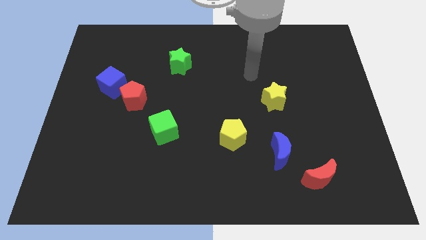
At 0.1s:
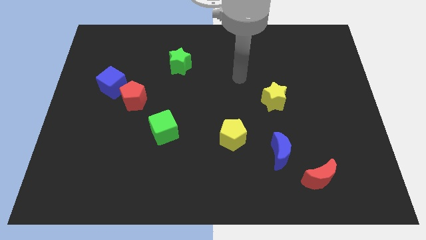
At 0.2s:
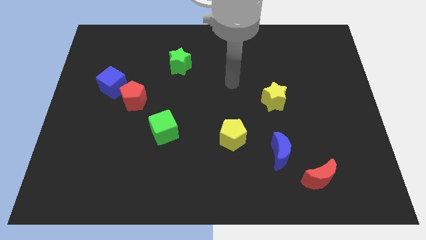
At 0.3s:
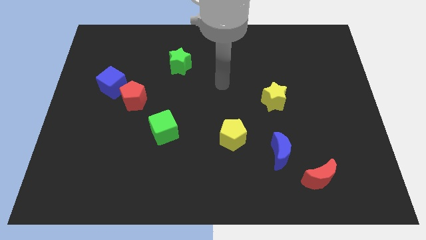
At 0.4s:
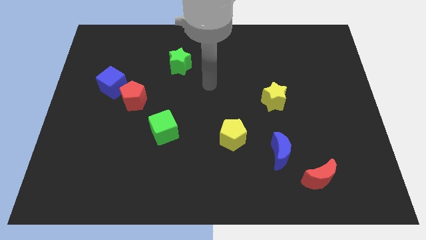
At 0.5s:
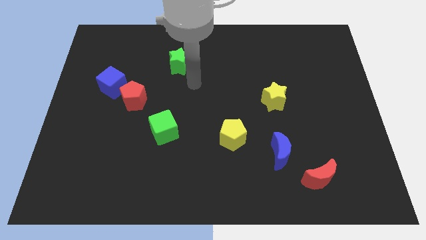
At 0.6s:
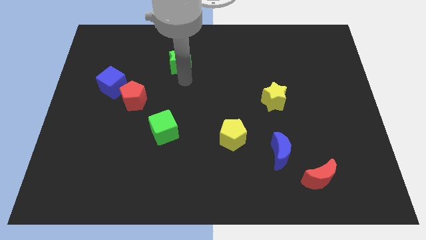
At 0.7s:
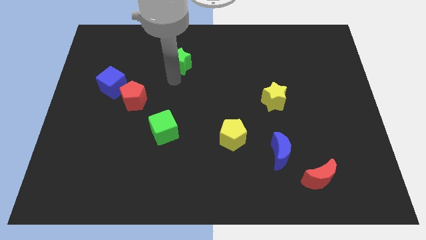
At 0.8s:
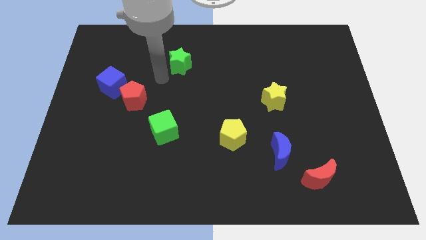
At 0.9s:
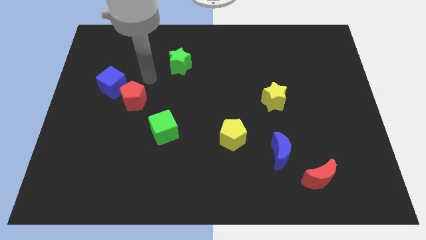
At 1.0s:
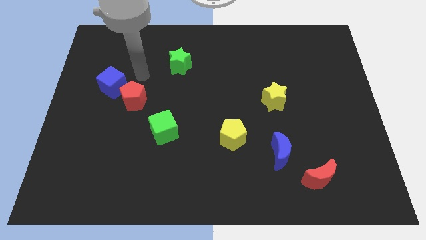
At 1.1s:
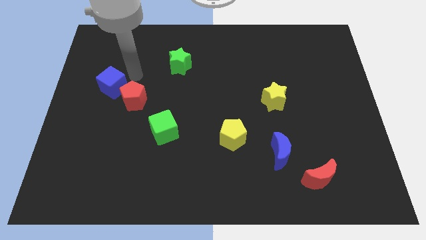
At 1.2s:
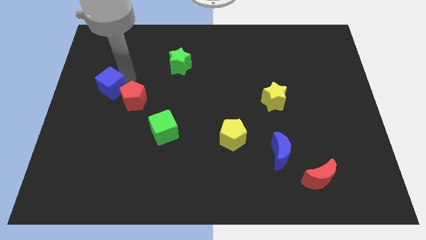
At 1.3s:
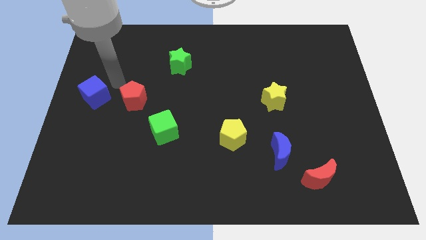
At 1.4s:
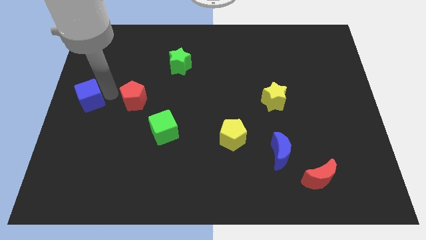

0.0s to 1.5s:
move the red pentagon away from the blue cube

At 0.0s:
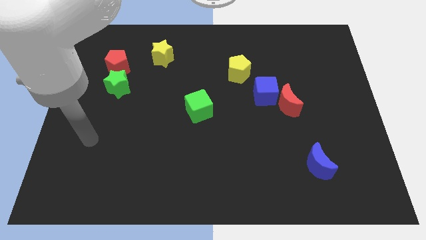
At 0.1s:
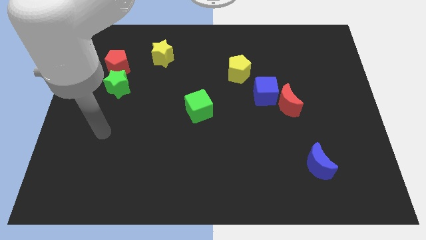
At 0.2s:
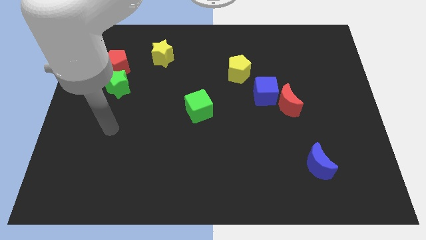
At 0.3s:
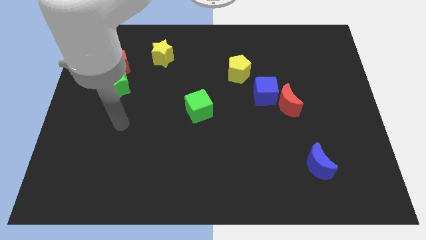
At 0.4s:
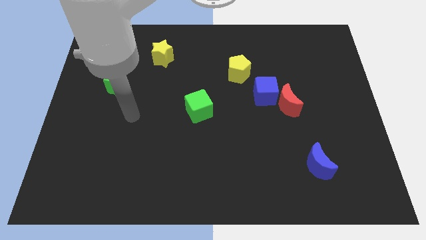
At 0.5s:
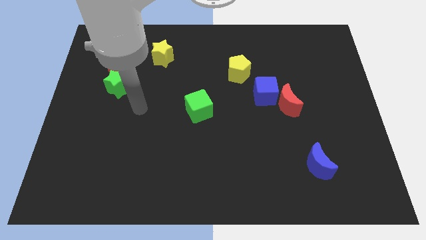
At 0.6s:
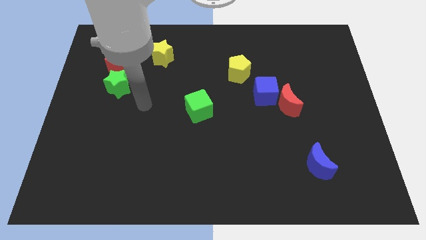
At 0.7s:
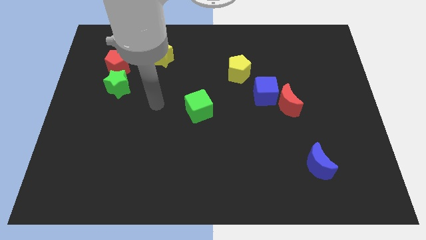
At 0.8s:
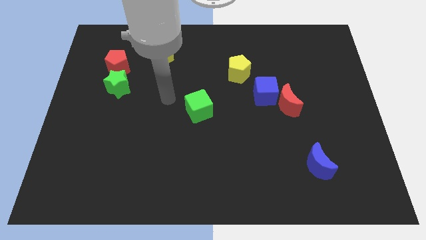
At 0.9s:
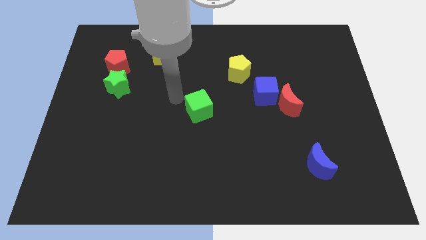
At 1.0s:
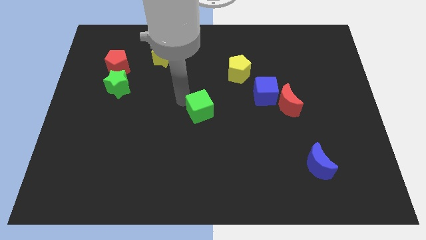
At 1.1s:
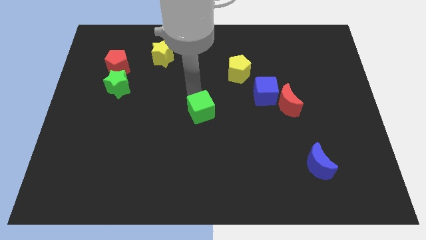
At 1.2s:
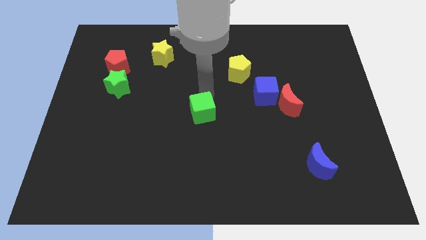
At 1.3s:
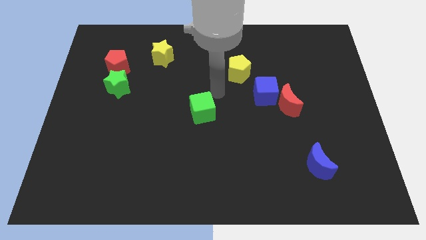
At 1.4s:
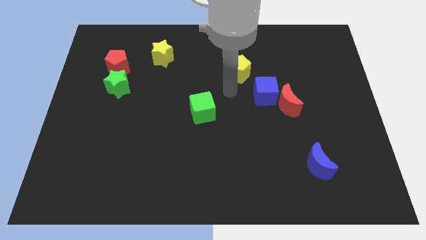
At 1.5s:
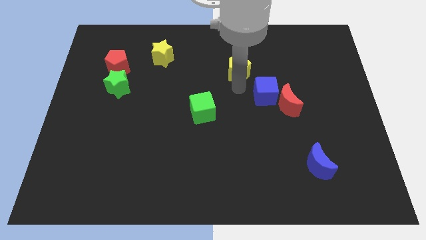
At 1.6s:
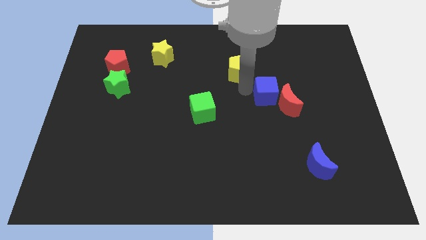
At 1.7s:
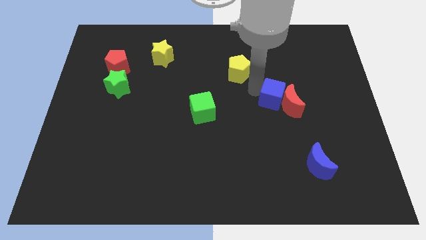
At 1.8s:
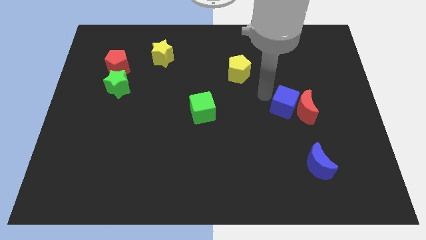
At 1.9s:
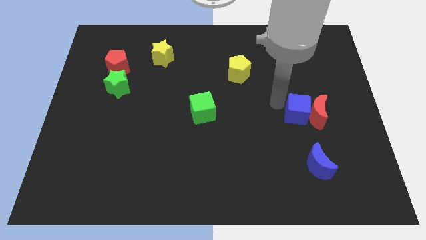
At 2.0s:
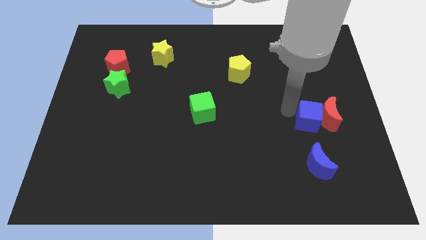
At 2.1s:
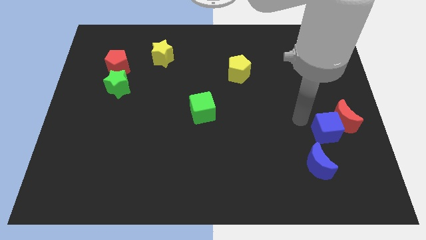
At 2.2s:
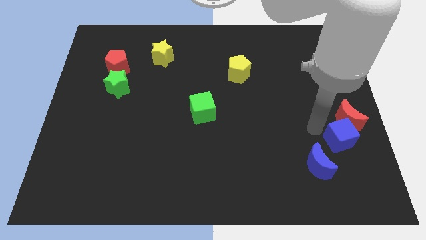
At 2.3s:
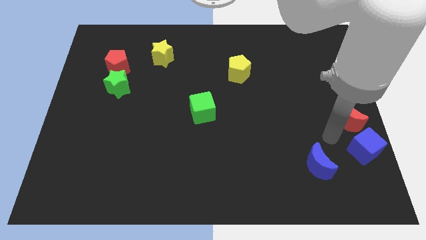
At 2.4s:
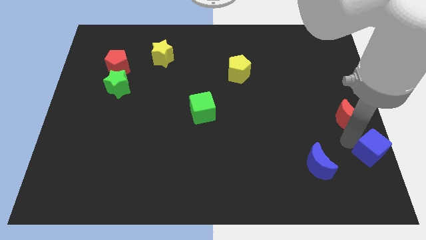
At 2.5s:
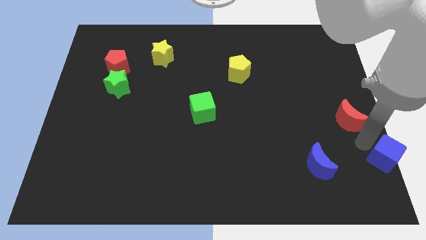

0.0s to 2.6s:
separate the red moon from the blue cube

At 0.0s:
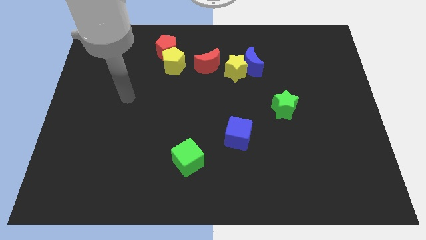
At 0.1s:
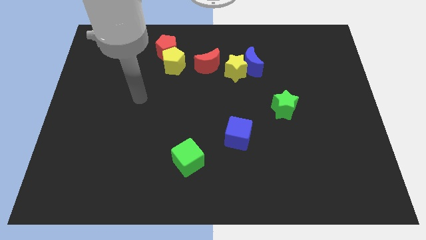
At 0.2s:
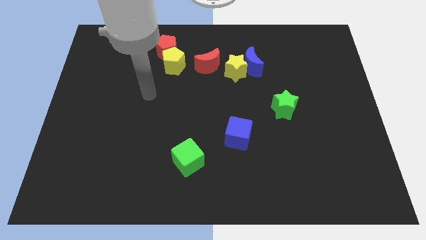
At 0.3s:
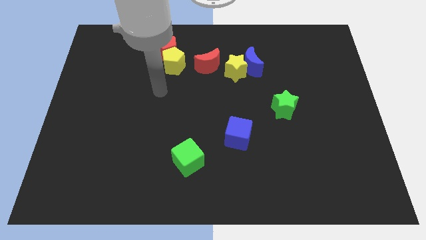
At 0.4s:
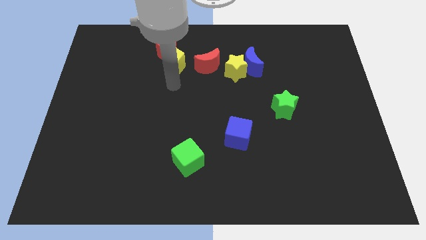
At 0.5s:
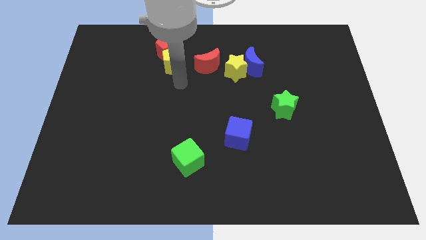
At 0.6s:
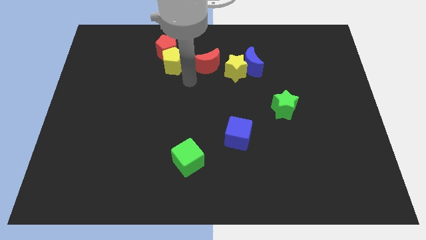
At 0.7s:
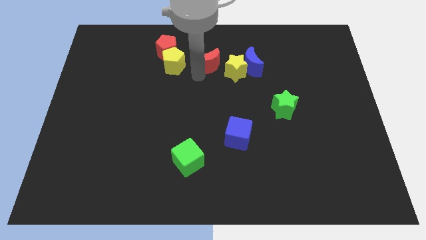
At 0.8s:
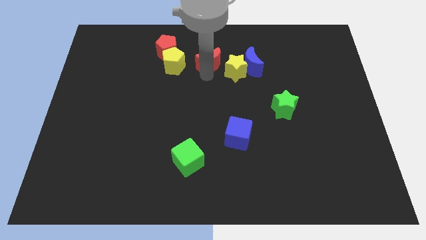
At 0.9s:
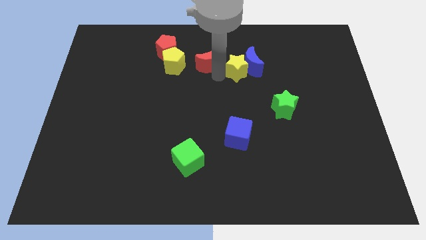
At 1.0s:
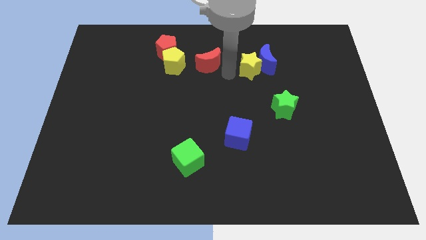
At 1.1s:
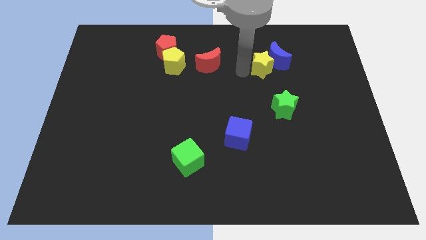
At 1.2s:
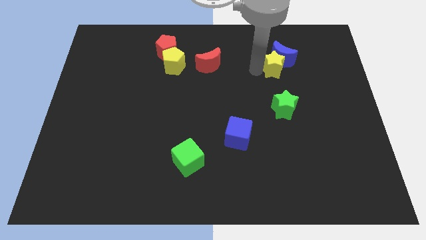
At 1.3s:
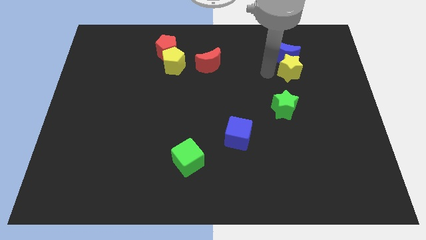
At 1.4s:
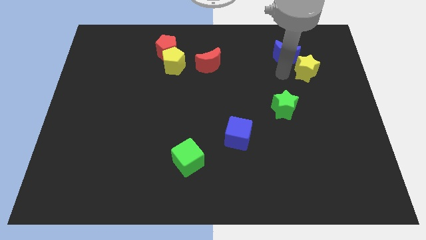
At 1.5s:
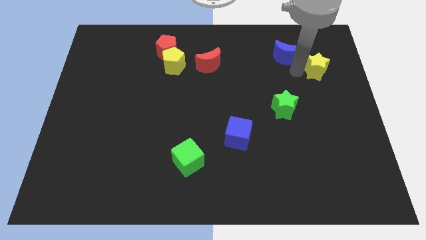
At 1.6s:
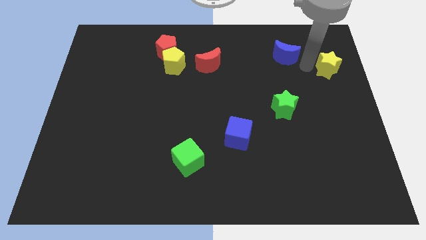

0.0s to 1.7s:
pull the blue moon apart from the yellow star

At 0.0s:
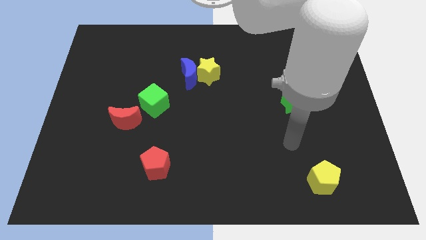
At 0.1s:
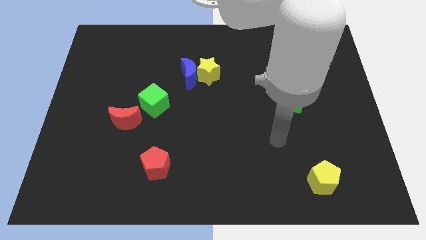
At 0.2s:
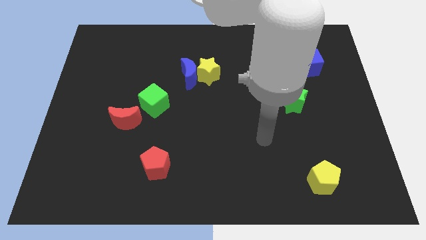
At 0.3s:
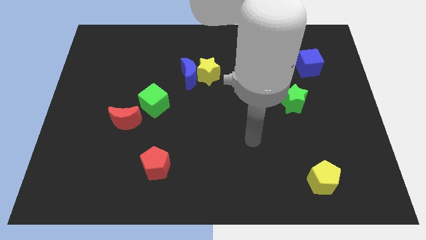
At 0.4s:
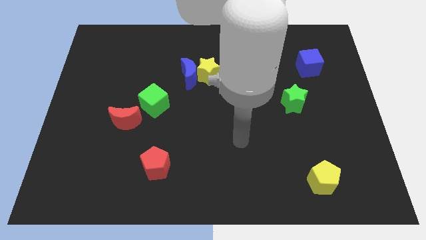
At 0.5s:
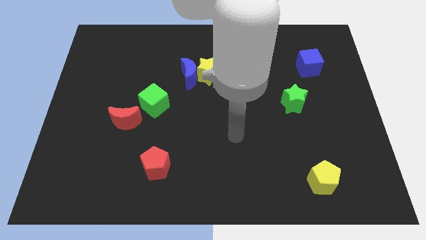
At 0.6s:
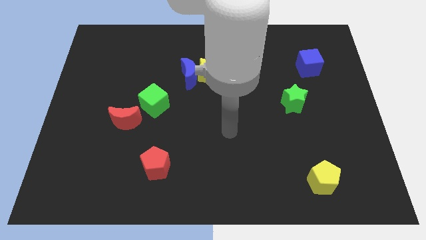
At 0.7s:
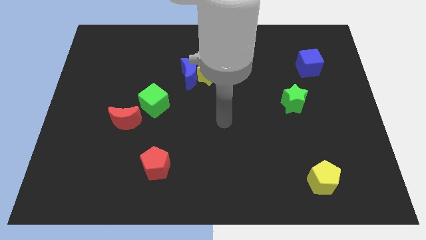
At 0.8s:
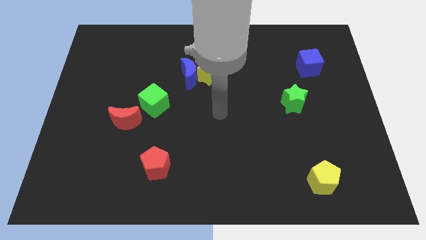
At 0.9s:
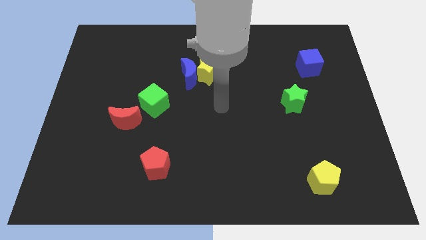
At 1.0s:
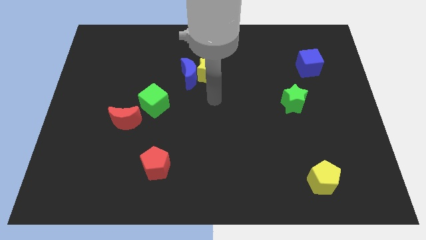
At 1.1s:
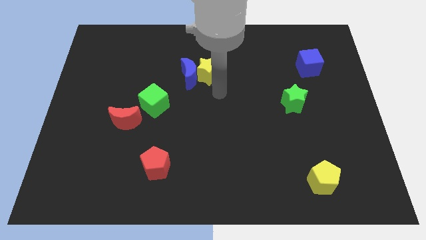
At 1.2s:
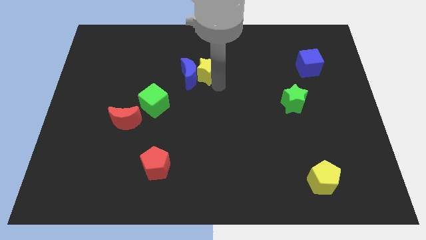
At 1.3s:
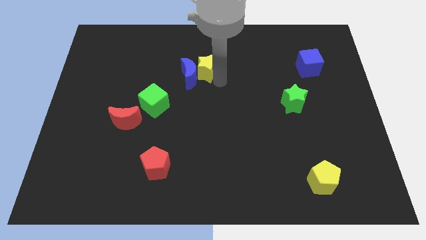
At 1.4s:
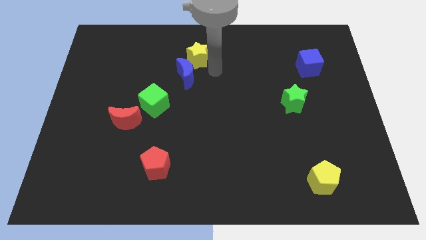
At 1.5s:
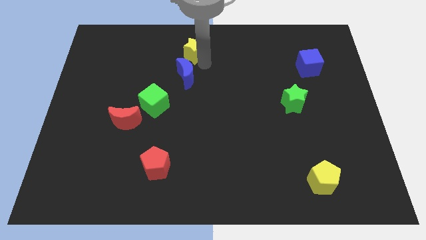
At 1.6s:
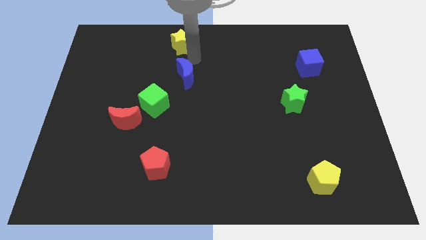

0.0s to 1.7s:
separate the blue moon from the yellow star

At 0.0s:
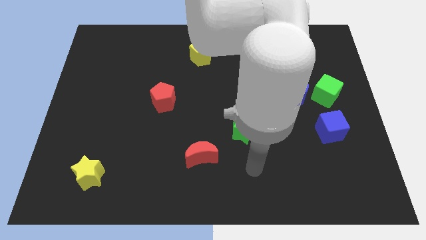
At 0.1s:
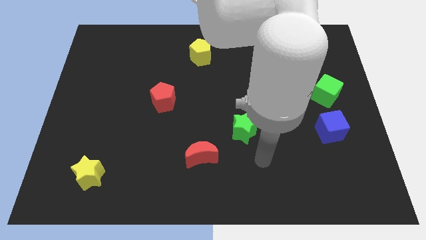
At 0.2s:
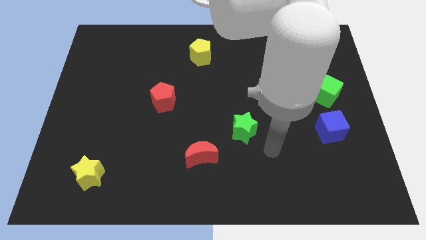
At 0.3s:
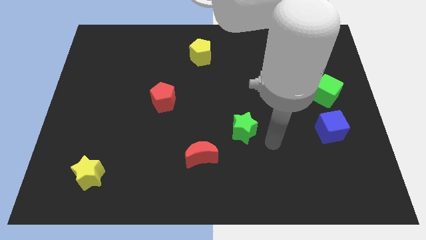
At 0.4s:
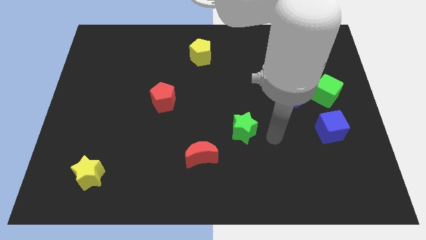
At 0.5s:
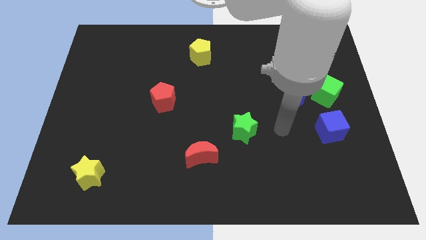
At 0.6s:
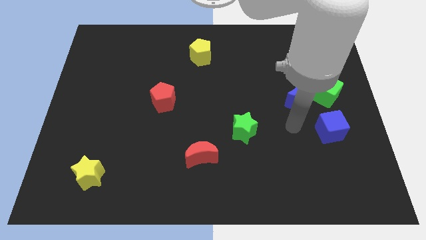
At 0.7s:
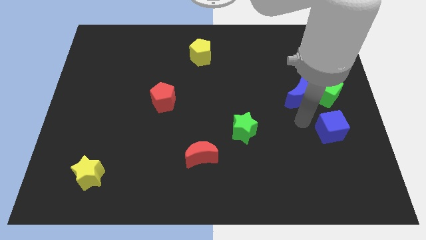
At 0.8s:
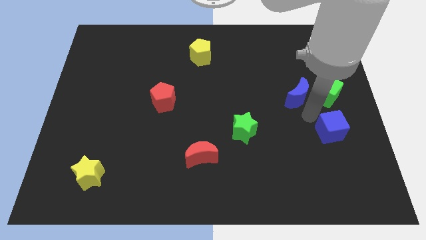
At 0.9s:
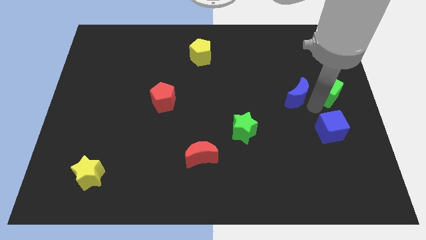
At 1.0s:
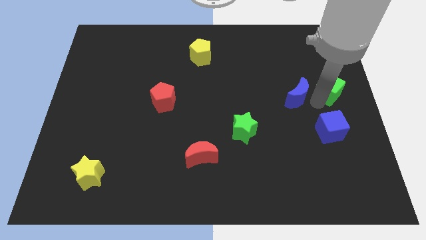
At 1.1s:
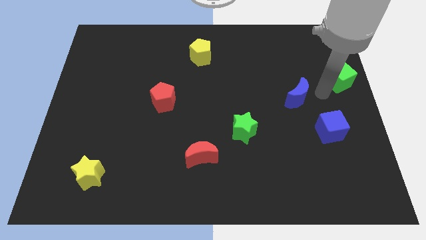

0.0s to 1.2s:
separate the blue moon from the green cube

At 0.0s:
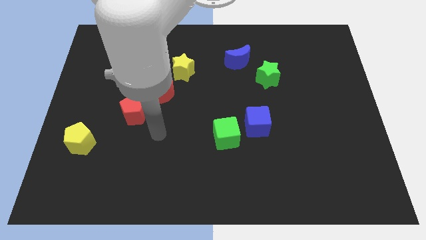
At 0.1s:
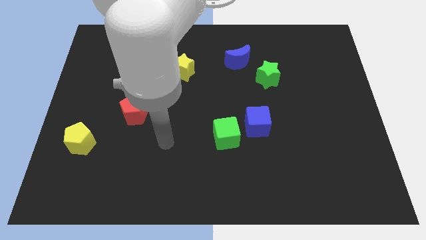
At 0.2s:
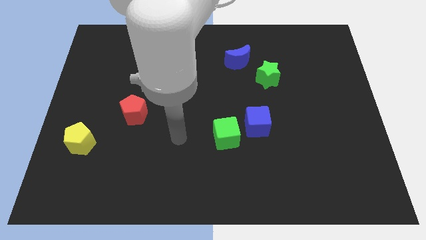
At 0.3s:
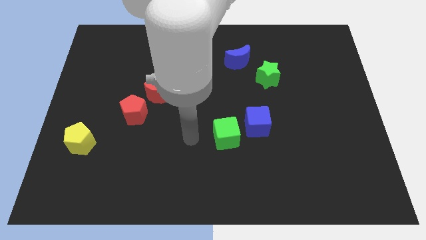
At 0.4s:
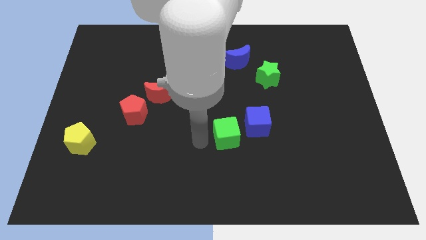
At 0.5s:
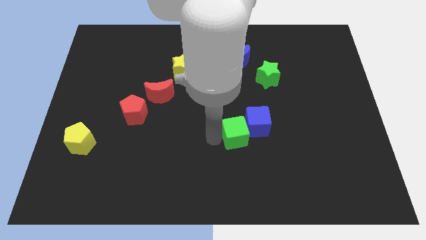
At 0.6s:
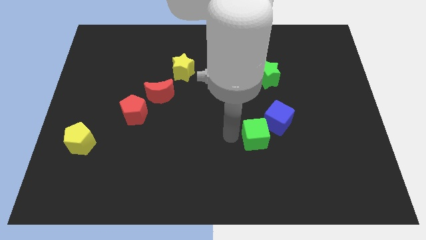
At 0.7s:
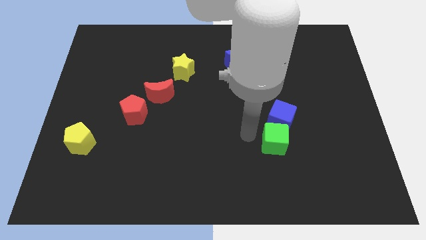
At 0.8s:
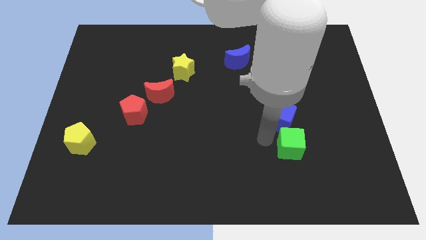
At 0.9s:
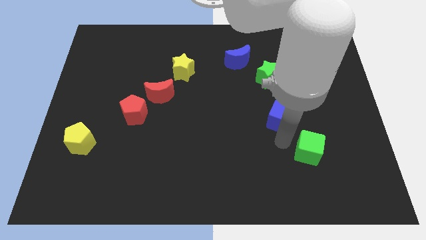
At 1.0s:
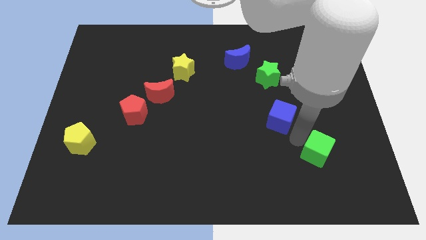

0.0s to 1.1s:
separate the blue cube from the green cube
